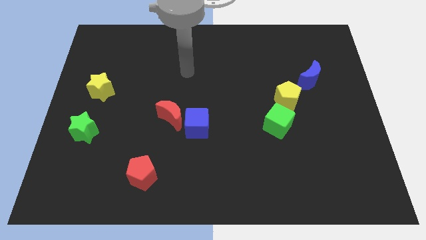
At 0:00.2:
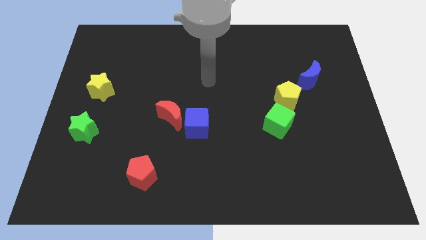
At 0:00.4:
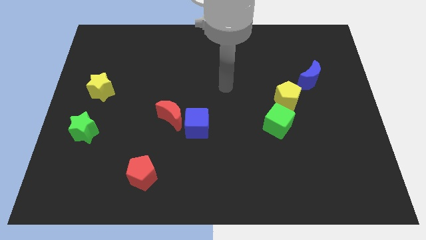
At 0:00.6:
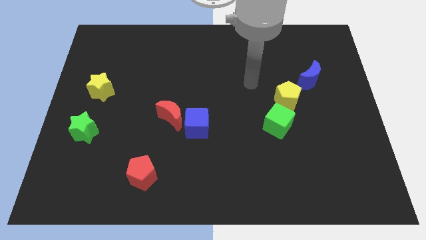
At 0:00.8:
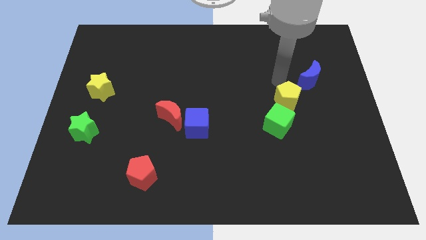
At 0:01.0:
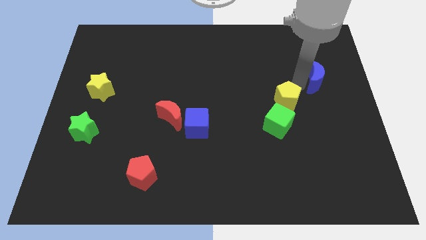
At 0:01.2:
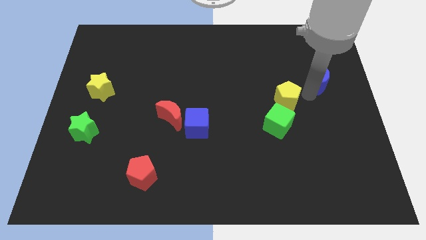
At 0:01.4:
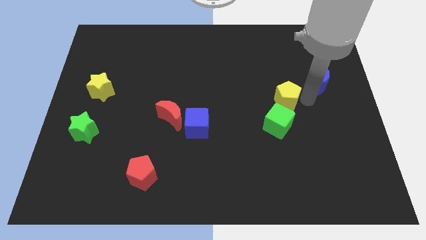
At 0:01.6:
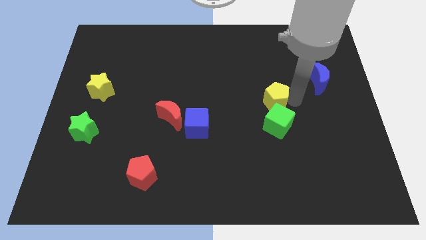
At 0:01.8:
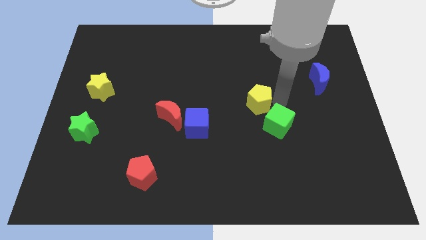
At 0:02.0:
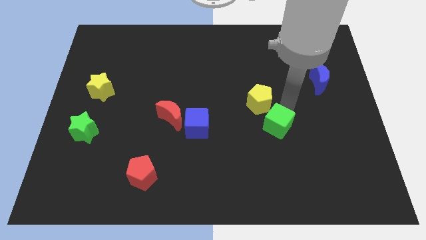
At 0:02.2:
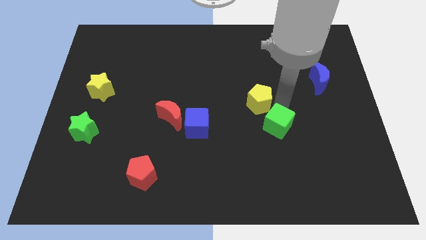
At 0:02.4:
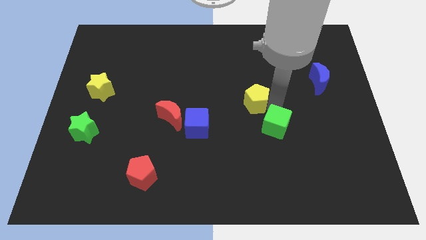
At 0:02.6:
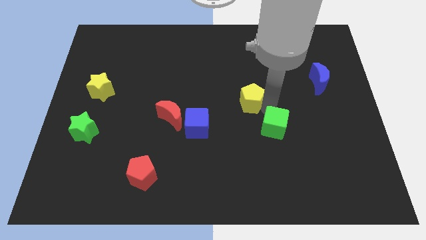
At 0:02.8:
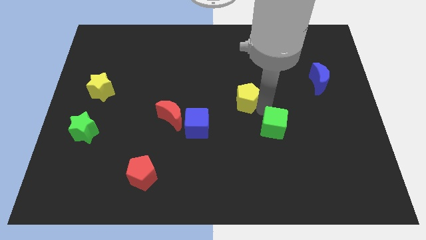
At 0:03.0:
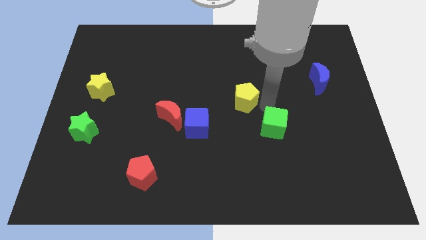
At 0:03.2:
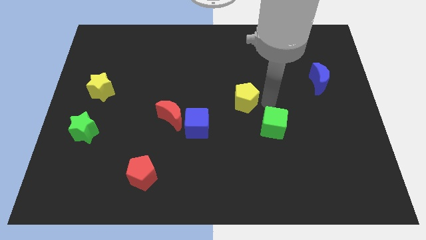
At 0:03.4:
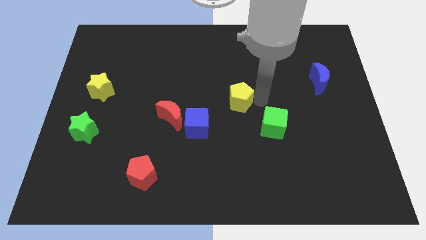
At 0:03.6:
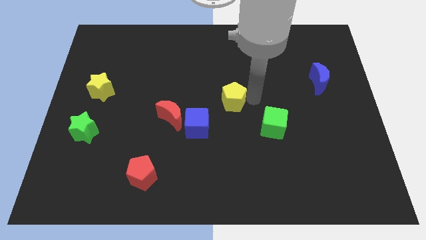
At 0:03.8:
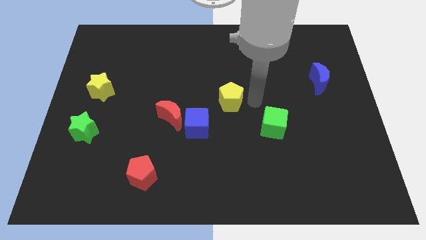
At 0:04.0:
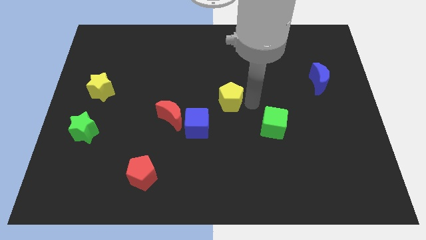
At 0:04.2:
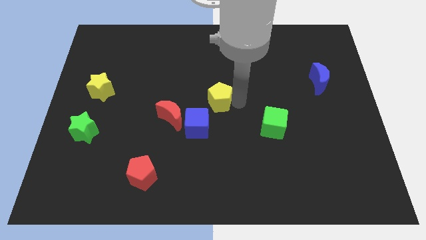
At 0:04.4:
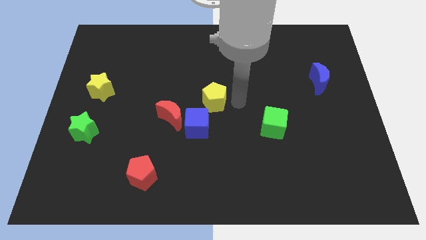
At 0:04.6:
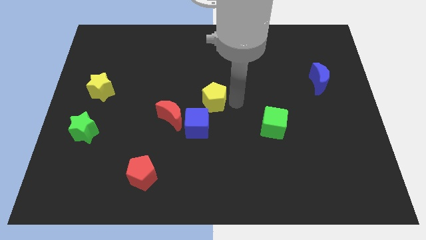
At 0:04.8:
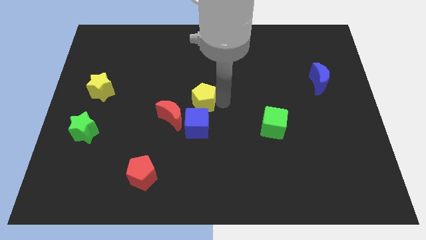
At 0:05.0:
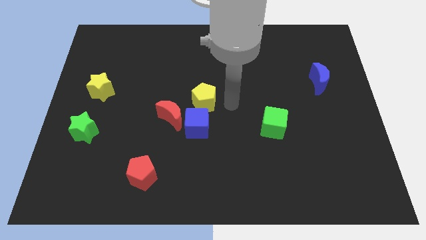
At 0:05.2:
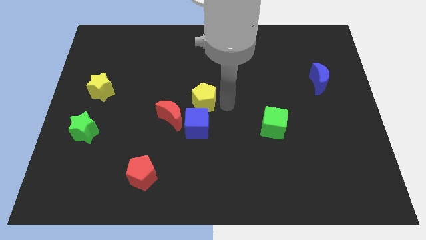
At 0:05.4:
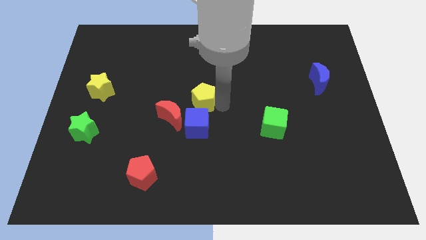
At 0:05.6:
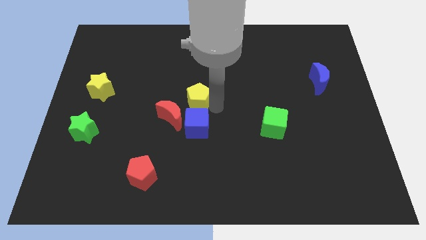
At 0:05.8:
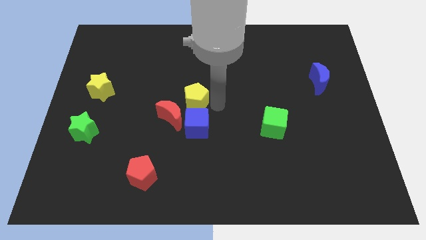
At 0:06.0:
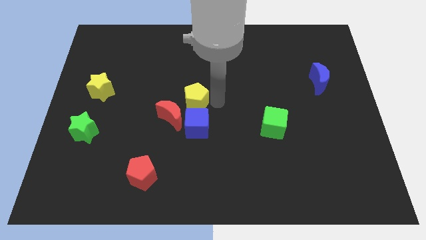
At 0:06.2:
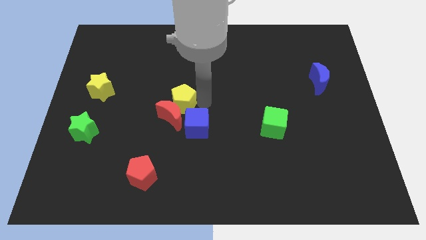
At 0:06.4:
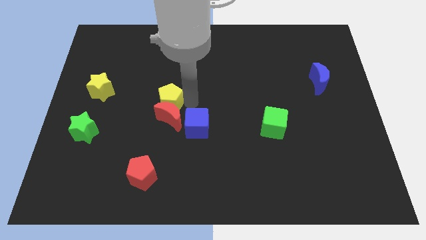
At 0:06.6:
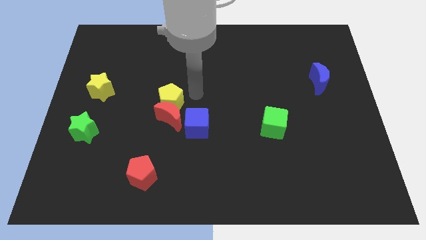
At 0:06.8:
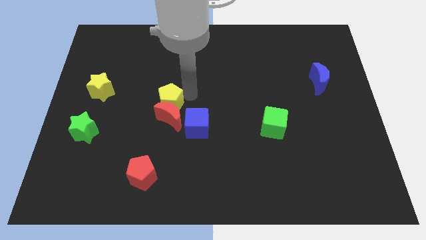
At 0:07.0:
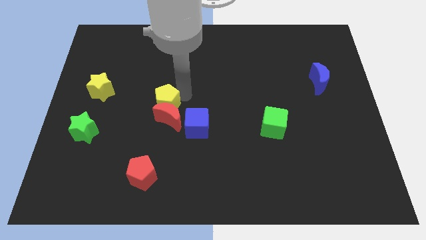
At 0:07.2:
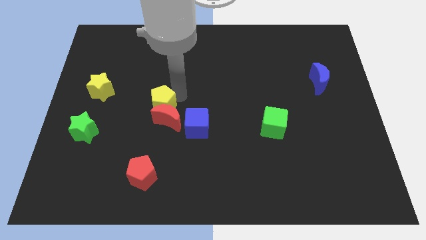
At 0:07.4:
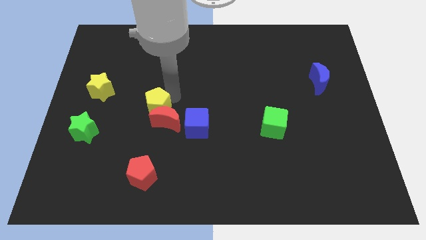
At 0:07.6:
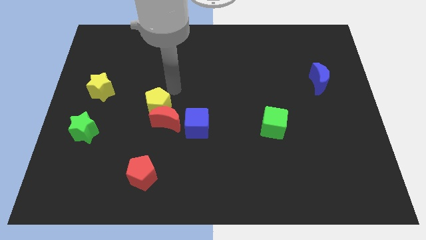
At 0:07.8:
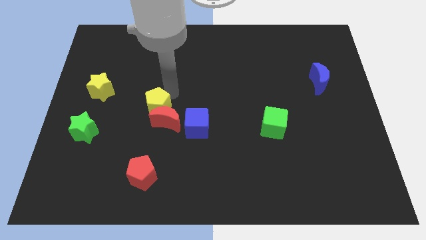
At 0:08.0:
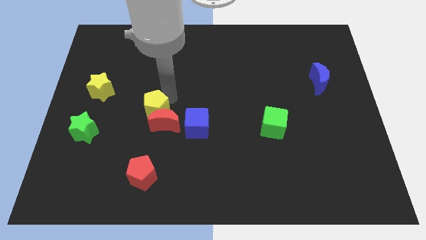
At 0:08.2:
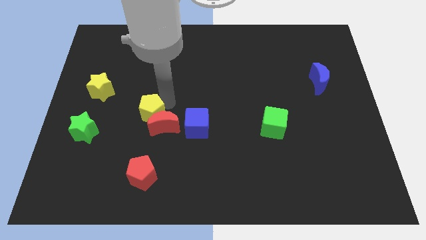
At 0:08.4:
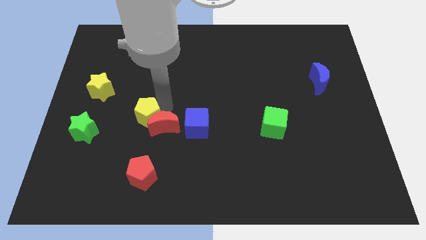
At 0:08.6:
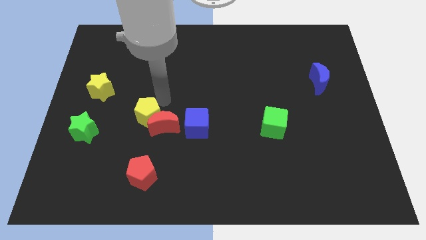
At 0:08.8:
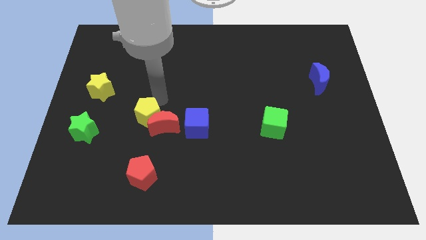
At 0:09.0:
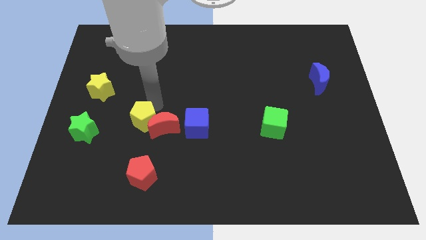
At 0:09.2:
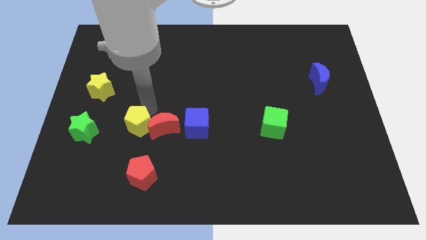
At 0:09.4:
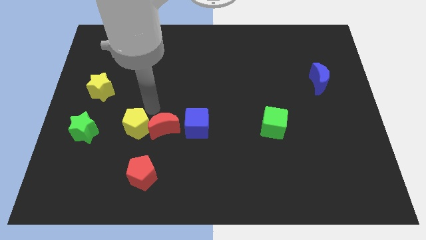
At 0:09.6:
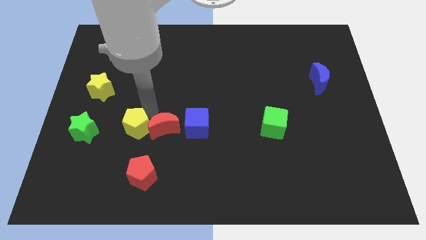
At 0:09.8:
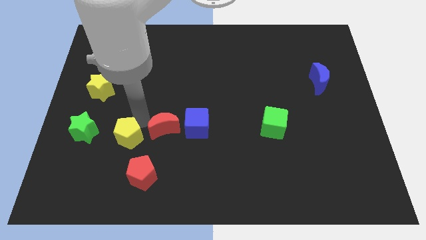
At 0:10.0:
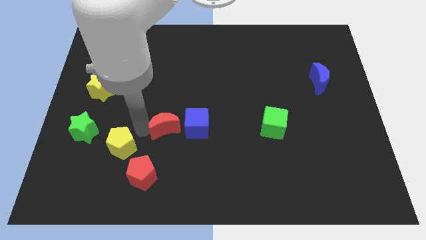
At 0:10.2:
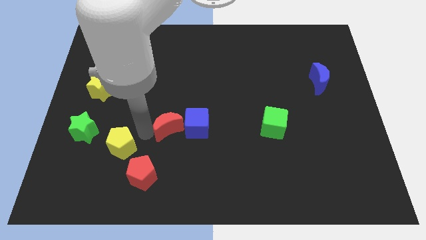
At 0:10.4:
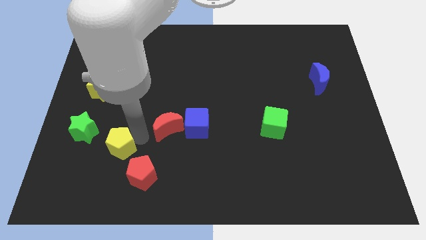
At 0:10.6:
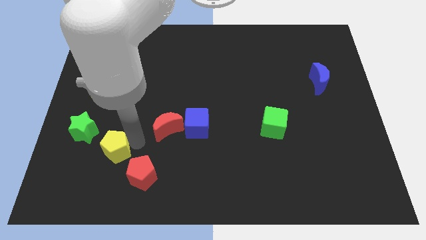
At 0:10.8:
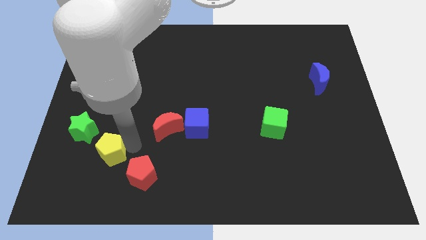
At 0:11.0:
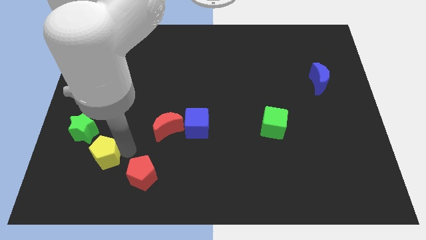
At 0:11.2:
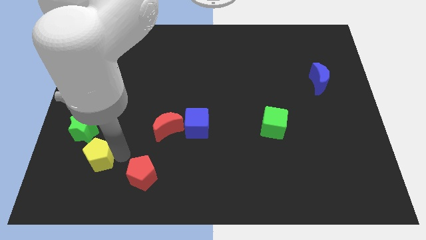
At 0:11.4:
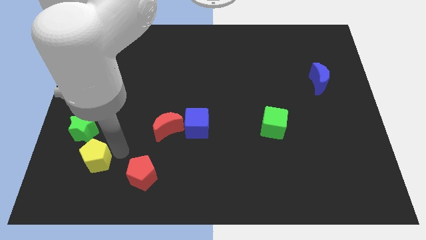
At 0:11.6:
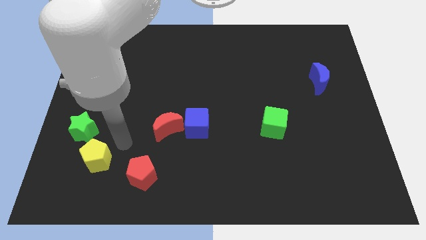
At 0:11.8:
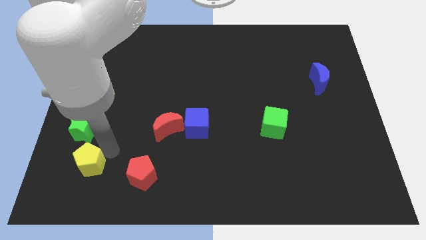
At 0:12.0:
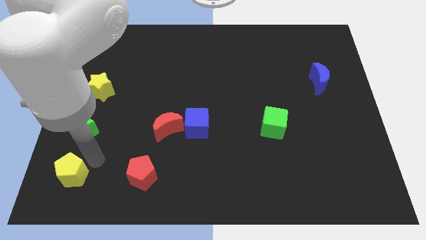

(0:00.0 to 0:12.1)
put the yellow pentagon to the bottom left
